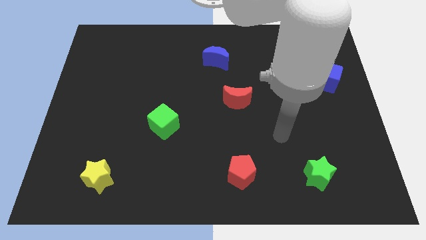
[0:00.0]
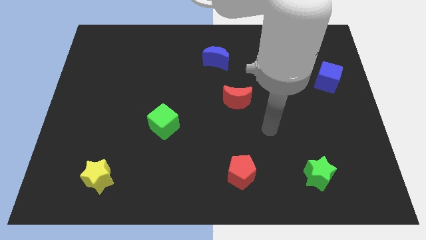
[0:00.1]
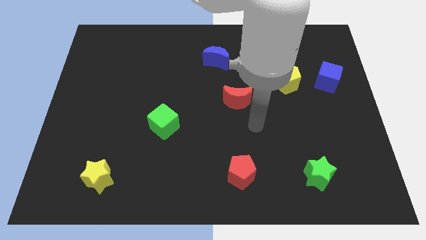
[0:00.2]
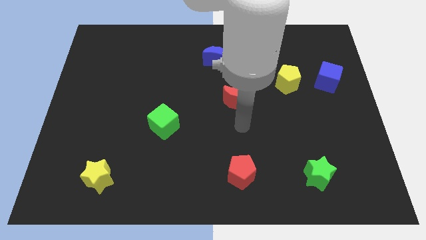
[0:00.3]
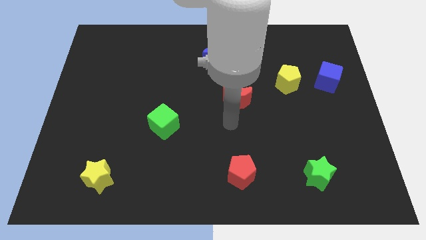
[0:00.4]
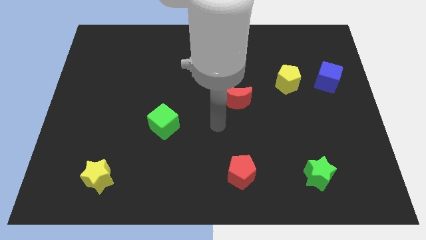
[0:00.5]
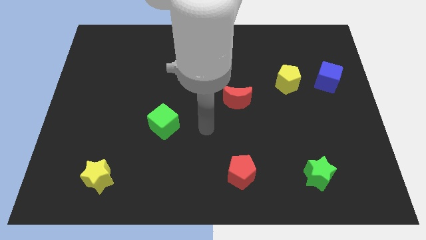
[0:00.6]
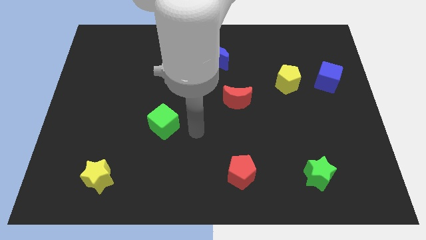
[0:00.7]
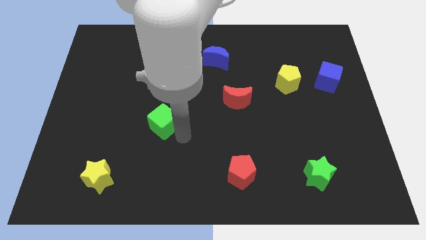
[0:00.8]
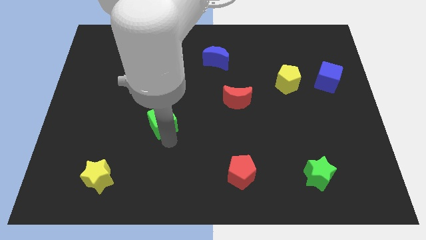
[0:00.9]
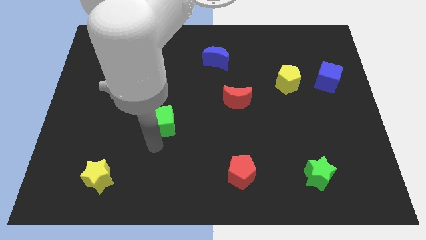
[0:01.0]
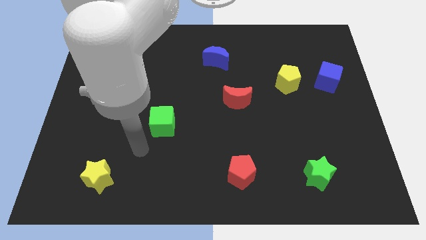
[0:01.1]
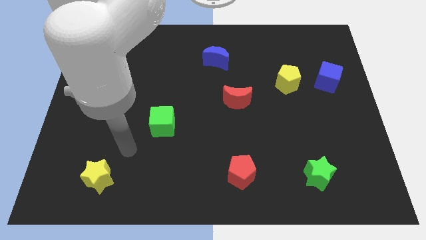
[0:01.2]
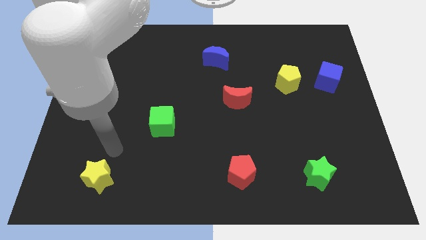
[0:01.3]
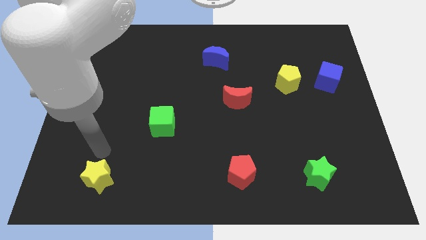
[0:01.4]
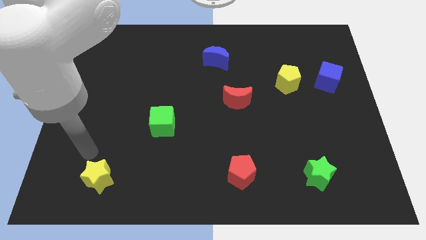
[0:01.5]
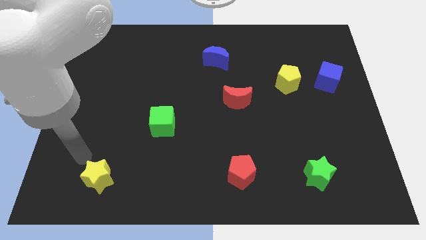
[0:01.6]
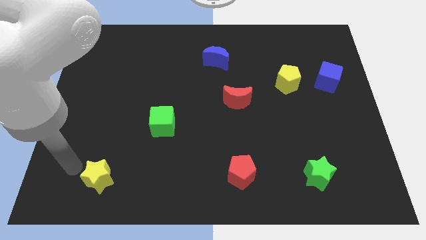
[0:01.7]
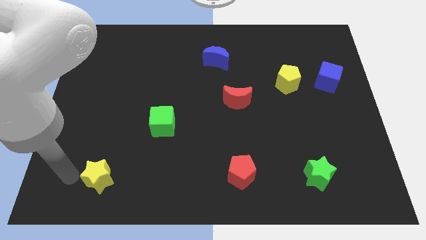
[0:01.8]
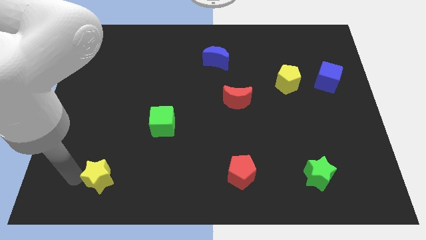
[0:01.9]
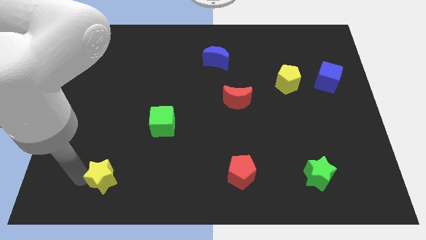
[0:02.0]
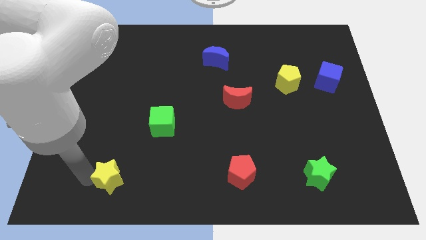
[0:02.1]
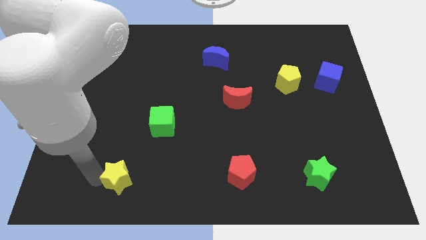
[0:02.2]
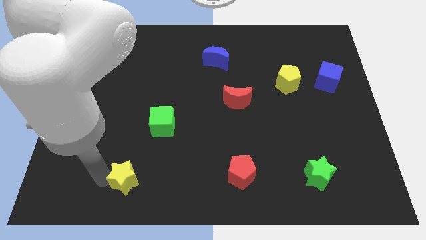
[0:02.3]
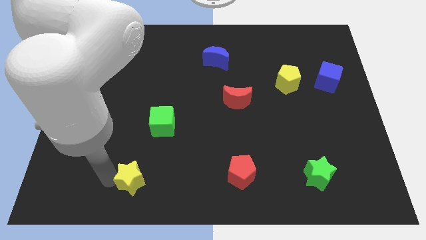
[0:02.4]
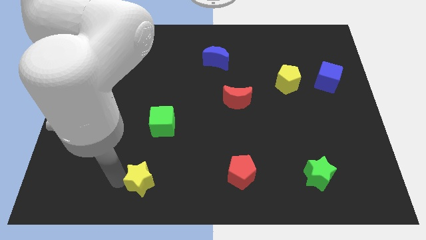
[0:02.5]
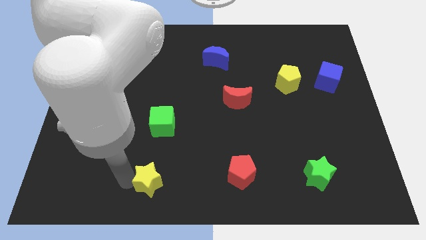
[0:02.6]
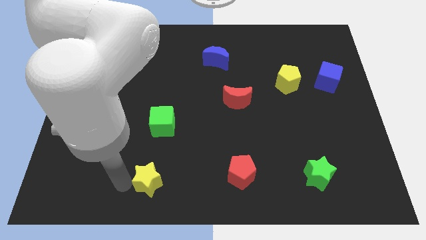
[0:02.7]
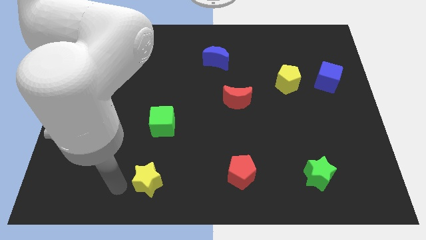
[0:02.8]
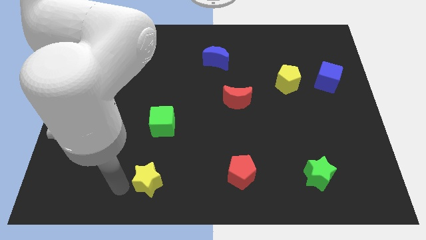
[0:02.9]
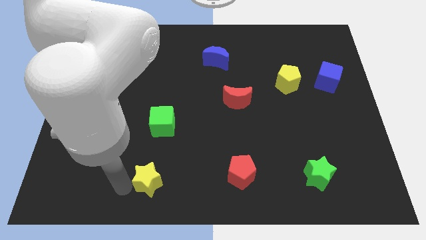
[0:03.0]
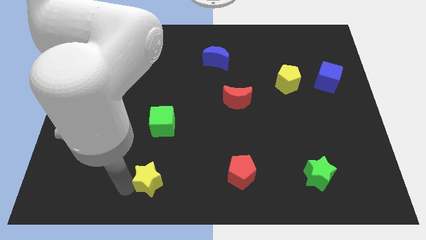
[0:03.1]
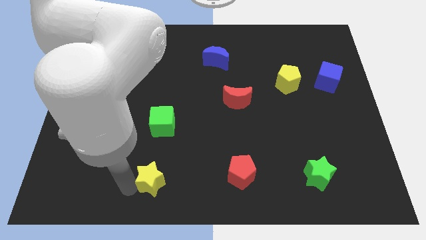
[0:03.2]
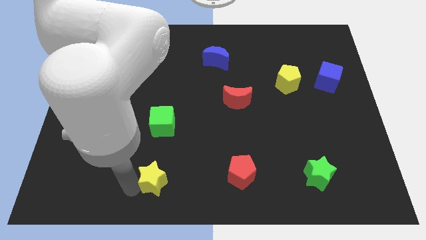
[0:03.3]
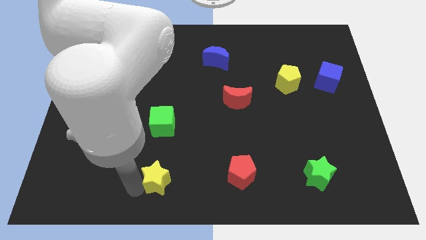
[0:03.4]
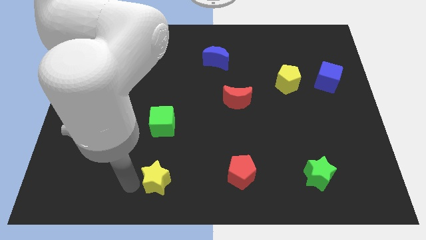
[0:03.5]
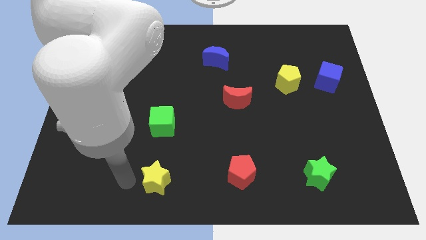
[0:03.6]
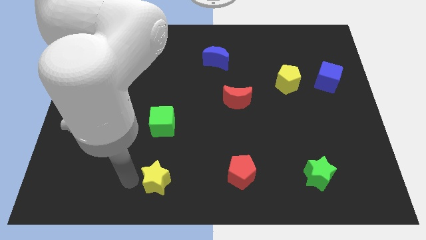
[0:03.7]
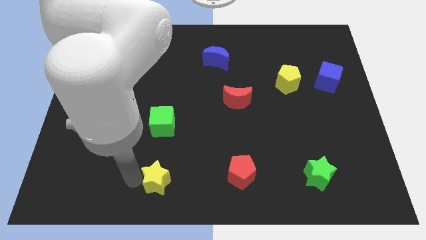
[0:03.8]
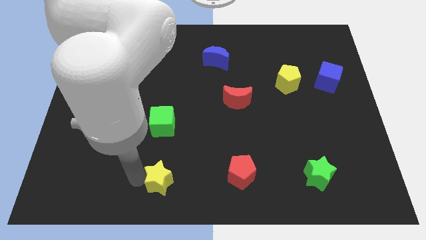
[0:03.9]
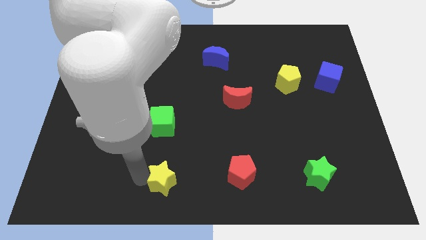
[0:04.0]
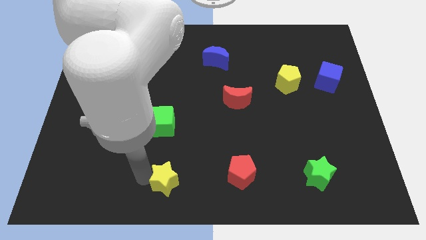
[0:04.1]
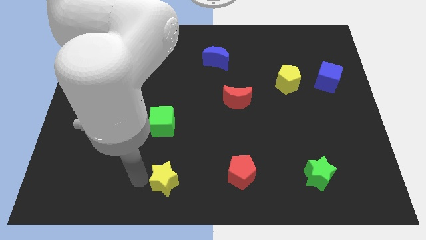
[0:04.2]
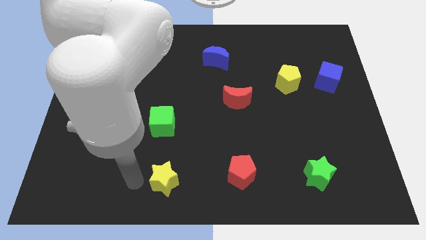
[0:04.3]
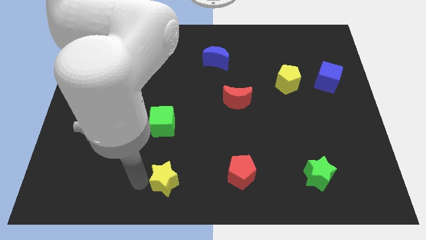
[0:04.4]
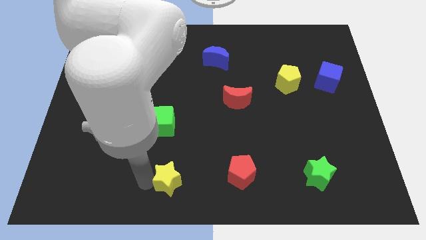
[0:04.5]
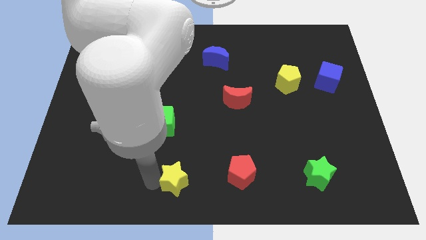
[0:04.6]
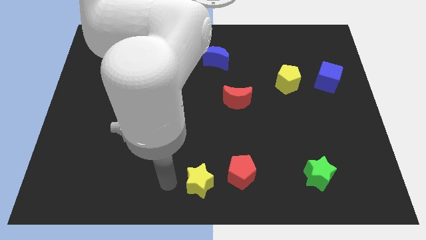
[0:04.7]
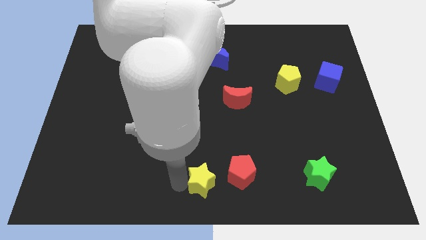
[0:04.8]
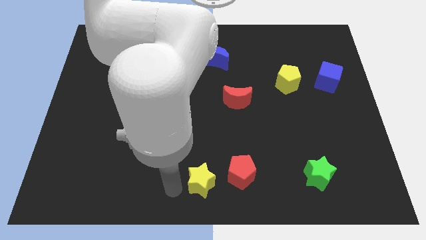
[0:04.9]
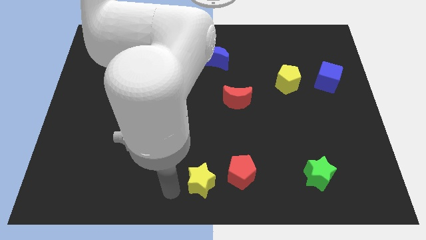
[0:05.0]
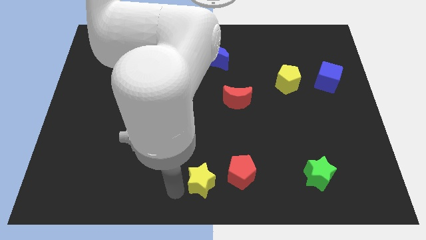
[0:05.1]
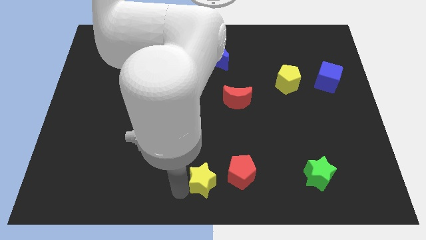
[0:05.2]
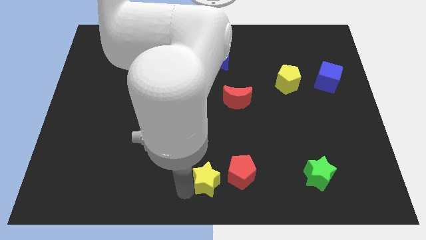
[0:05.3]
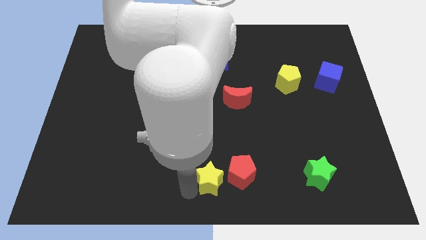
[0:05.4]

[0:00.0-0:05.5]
slide the yellow star close to the red pentagon

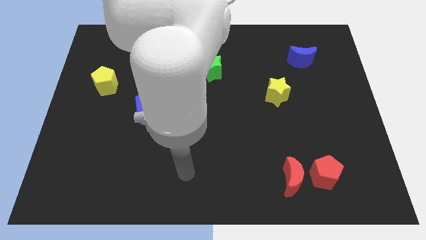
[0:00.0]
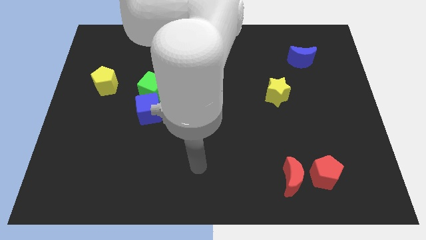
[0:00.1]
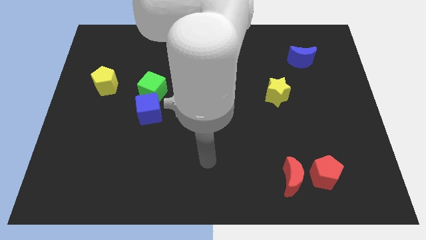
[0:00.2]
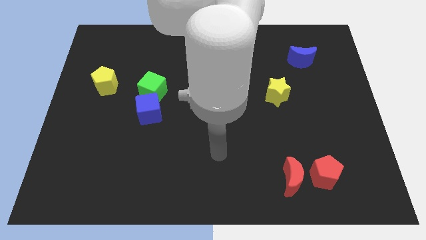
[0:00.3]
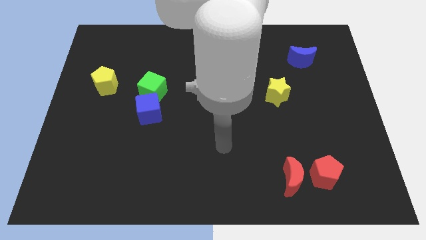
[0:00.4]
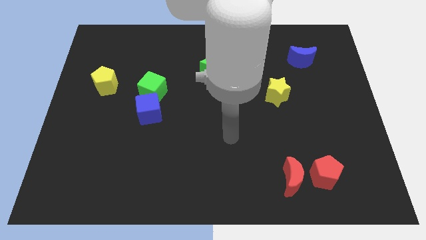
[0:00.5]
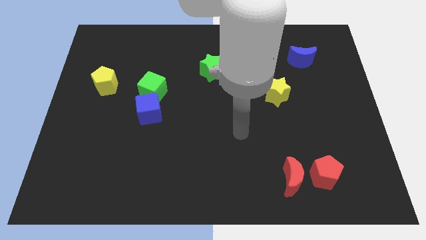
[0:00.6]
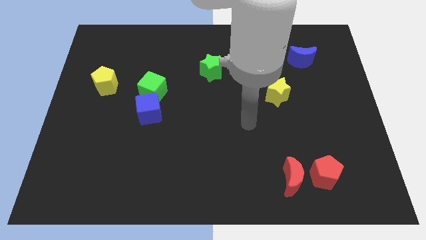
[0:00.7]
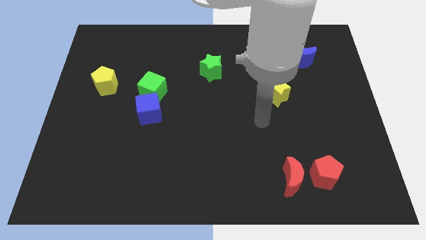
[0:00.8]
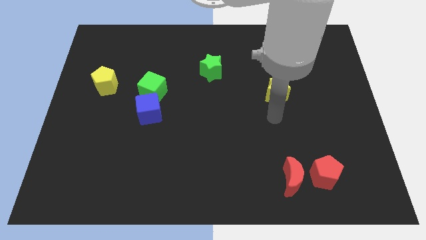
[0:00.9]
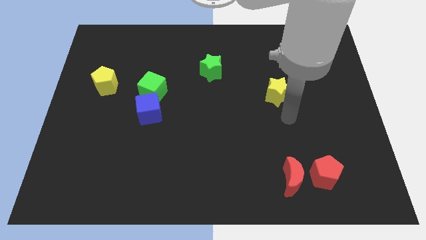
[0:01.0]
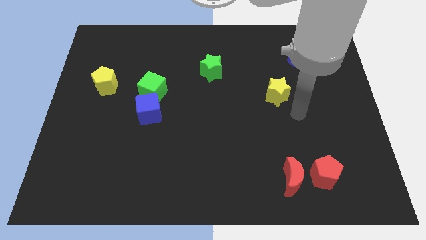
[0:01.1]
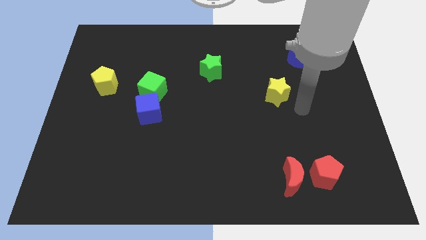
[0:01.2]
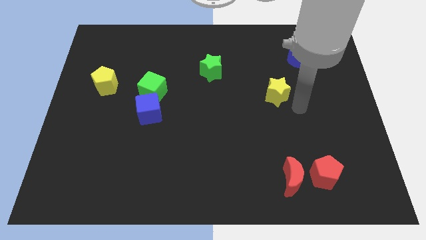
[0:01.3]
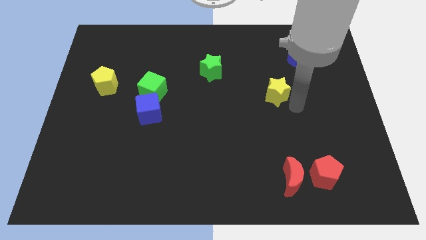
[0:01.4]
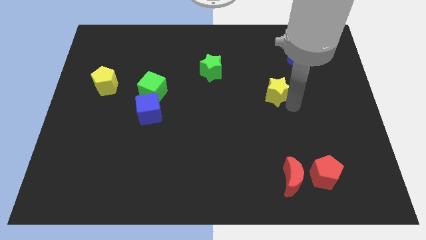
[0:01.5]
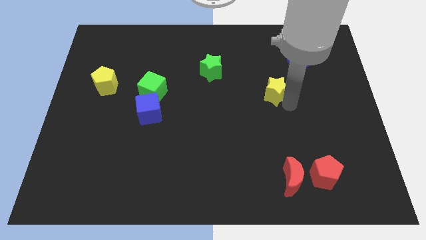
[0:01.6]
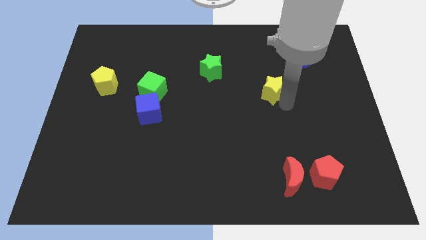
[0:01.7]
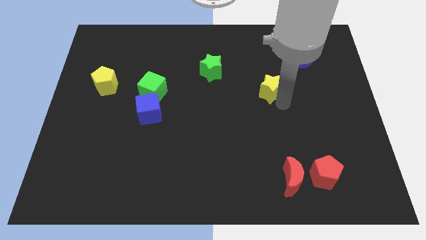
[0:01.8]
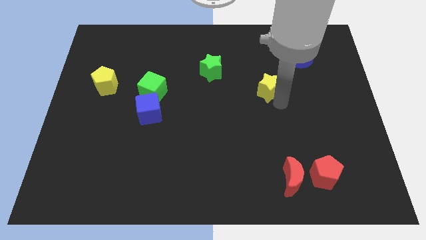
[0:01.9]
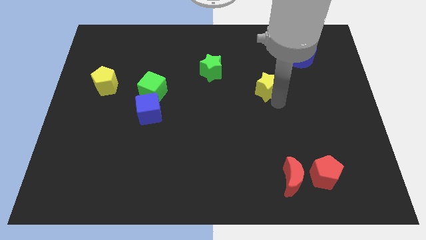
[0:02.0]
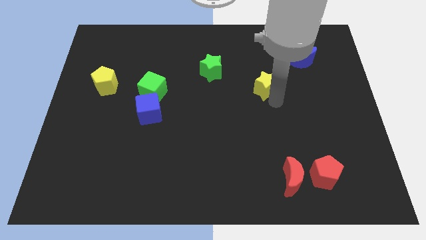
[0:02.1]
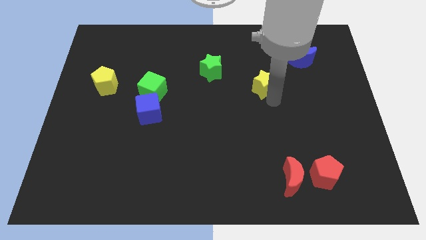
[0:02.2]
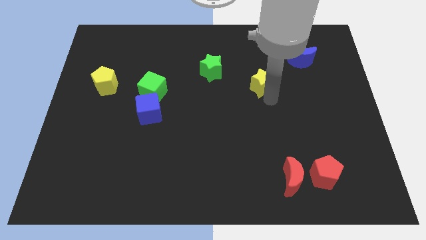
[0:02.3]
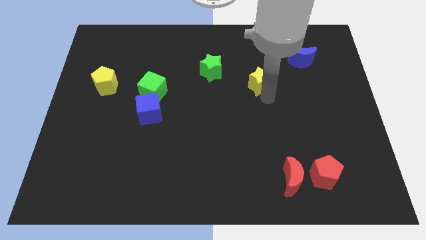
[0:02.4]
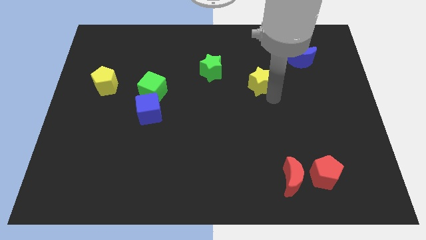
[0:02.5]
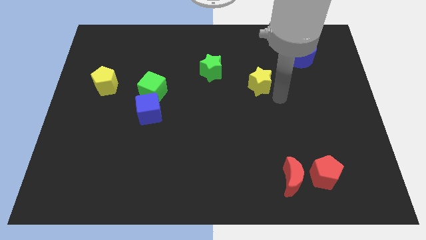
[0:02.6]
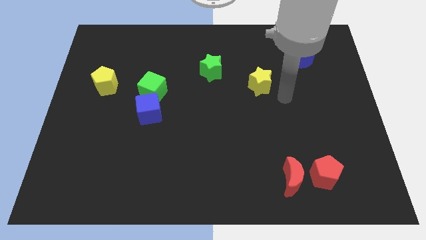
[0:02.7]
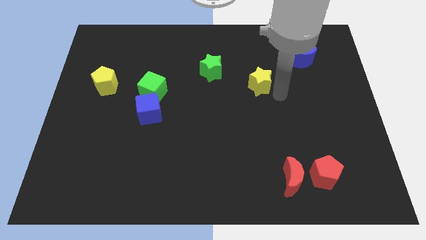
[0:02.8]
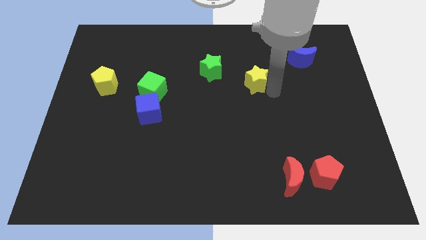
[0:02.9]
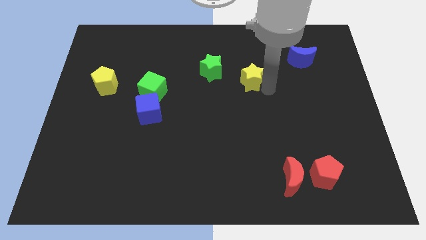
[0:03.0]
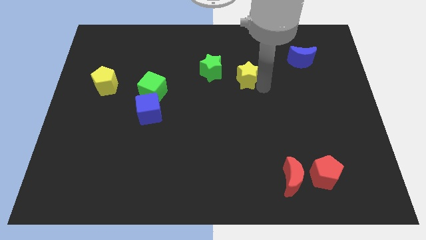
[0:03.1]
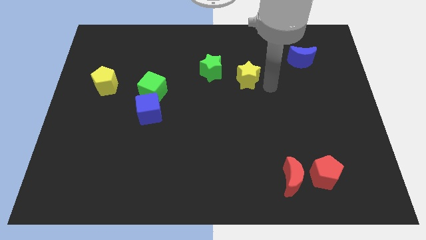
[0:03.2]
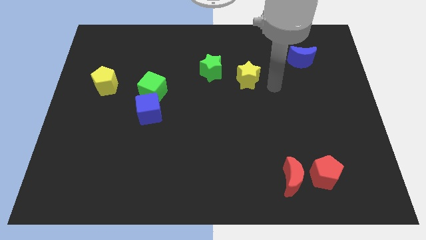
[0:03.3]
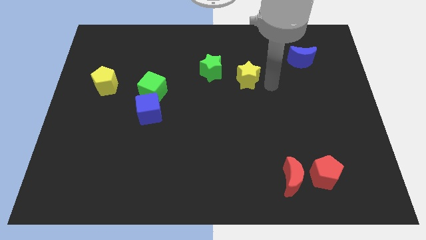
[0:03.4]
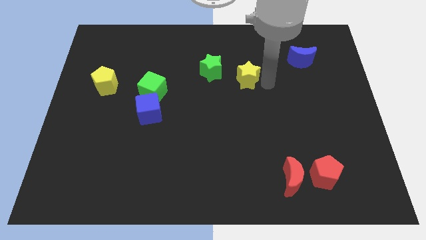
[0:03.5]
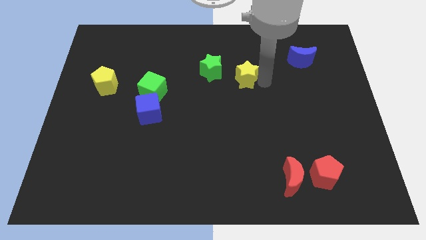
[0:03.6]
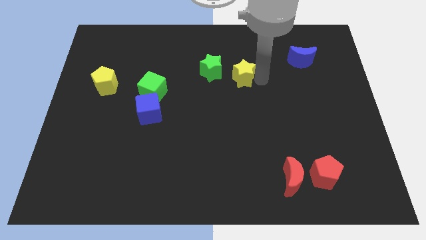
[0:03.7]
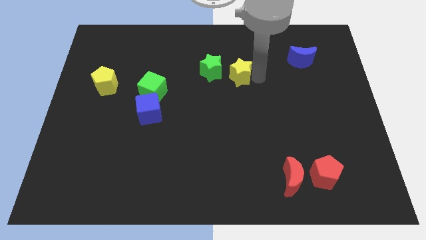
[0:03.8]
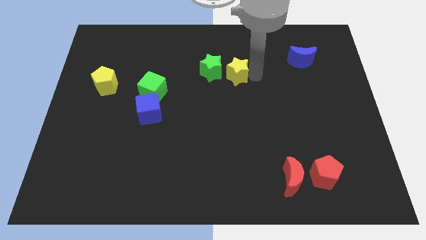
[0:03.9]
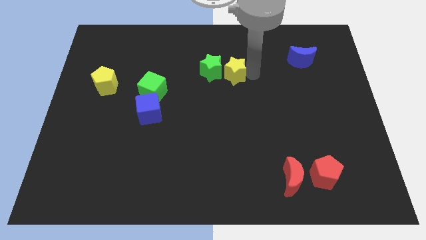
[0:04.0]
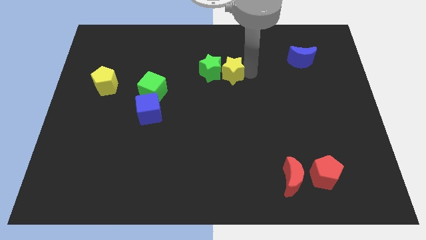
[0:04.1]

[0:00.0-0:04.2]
move the yellow star next to the green star
